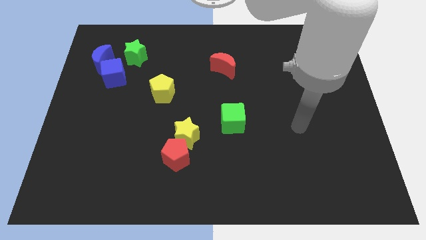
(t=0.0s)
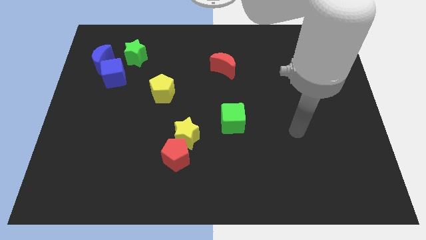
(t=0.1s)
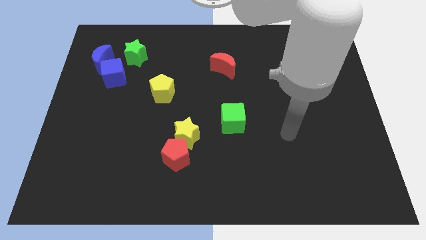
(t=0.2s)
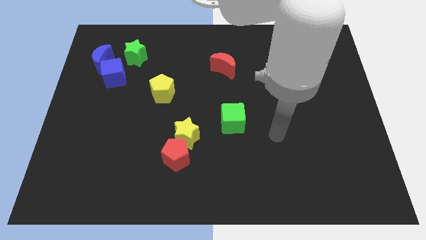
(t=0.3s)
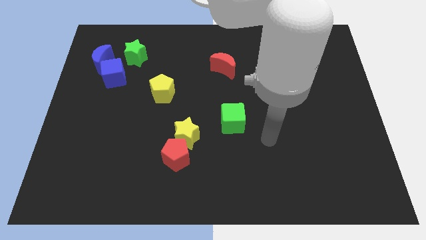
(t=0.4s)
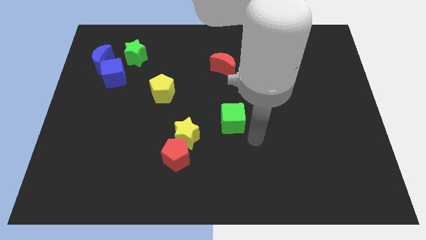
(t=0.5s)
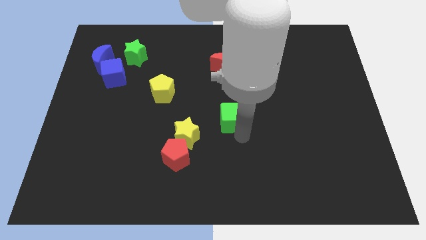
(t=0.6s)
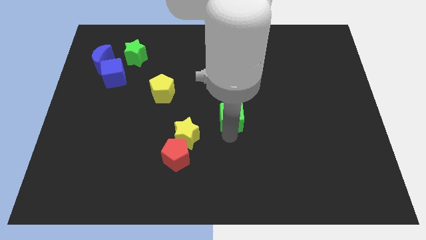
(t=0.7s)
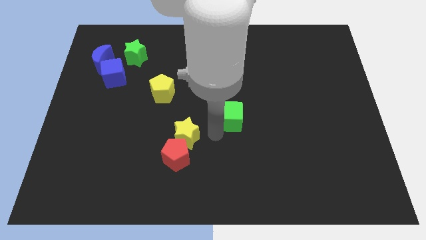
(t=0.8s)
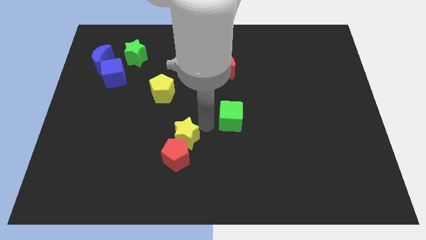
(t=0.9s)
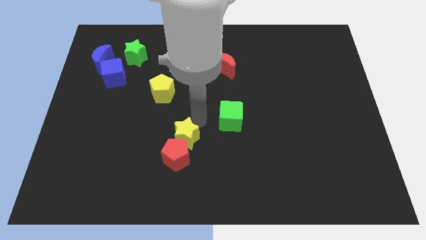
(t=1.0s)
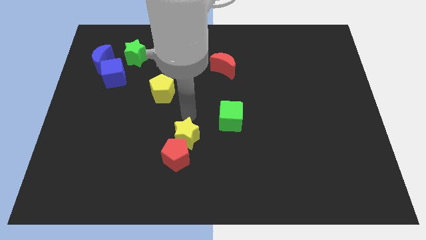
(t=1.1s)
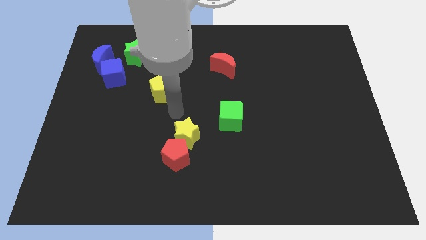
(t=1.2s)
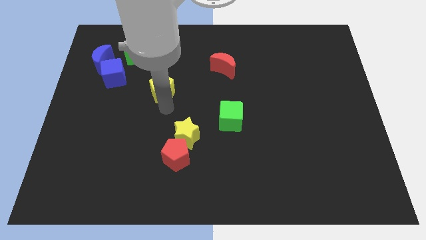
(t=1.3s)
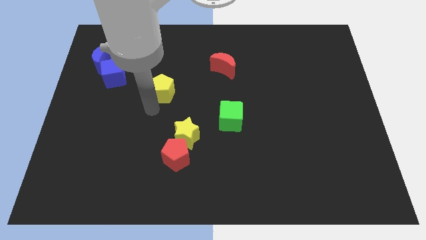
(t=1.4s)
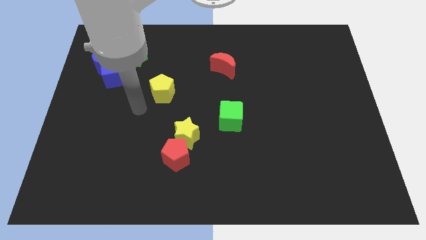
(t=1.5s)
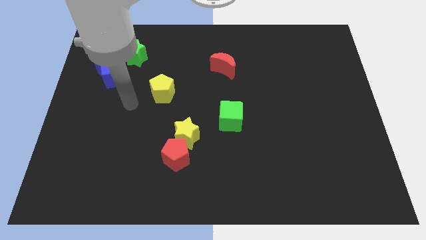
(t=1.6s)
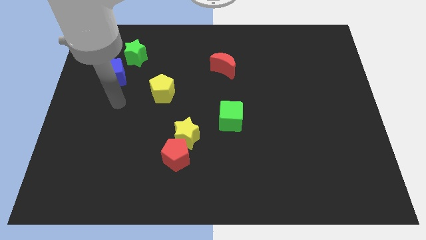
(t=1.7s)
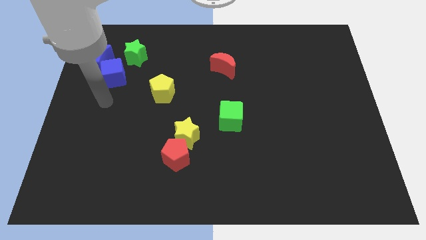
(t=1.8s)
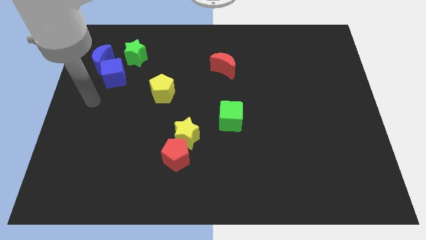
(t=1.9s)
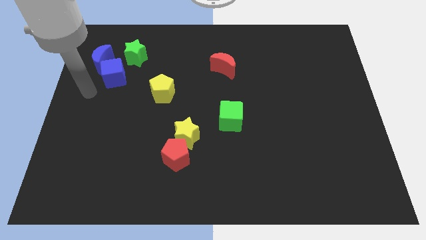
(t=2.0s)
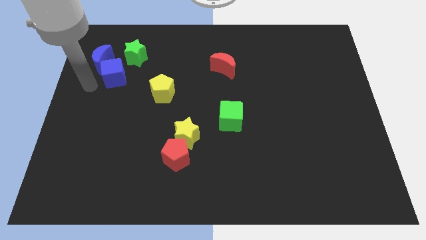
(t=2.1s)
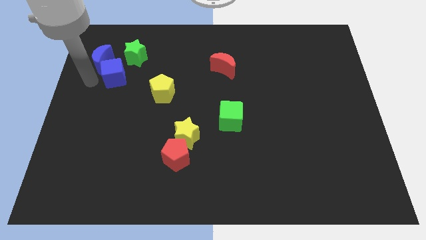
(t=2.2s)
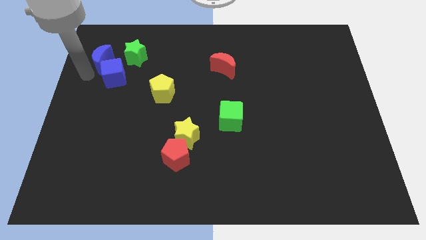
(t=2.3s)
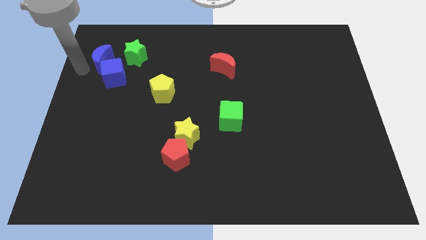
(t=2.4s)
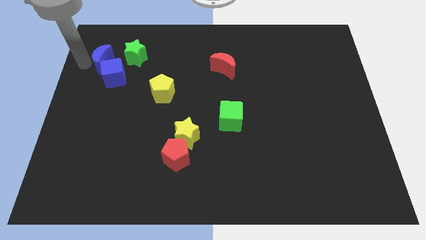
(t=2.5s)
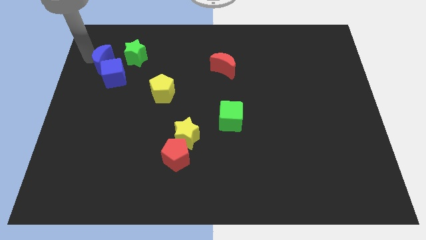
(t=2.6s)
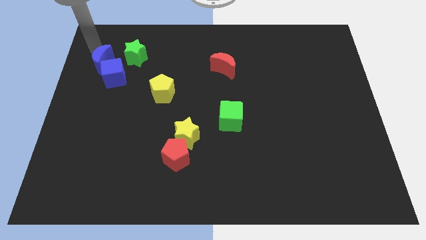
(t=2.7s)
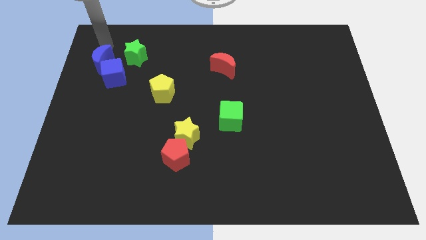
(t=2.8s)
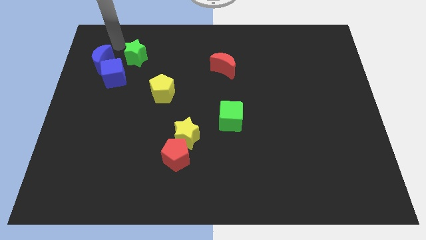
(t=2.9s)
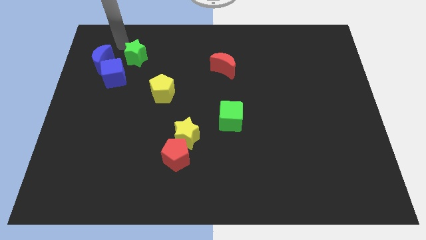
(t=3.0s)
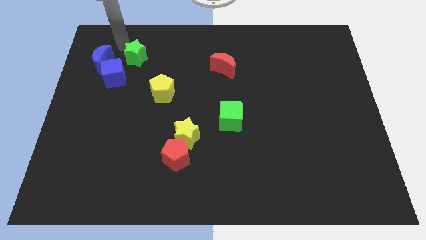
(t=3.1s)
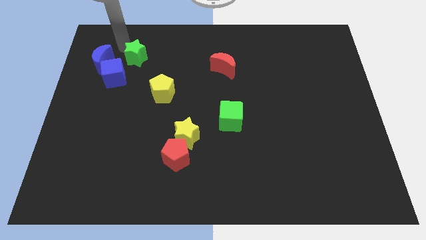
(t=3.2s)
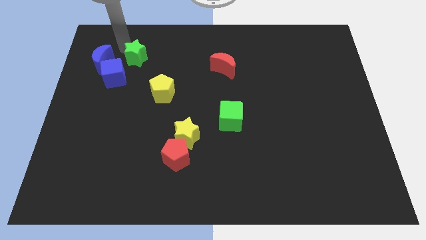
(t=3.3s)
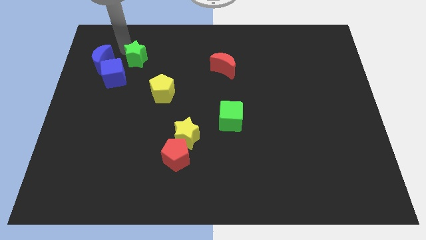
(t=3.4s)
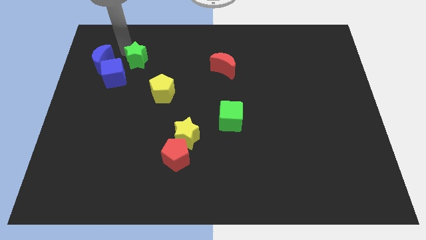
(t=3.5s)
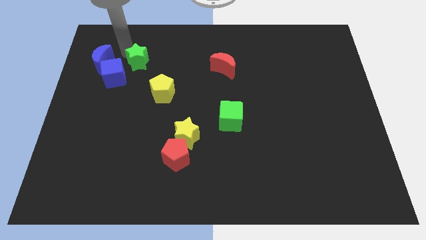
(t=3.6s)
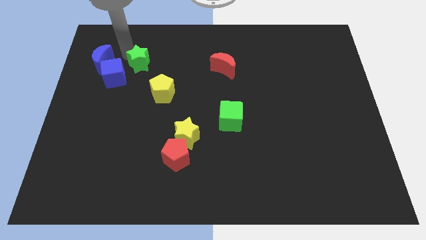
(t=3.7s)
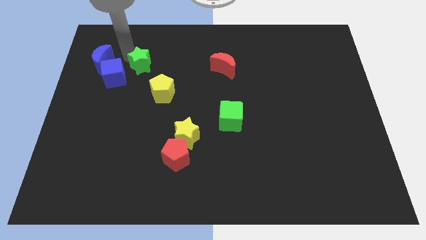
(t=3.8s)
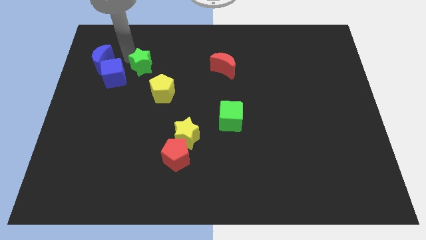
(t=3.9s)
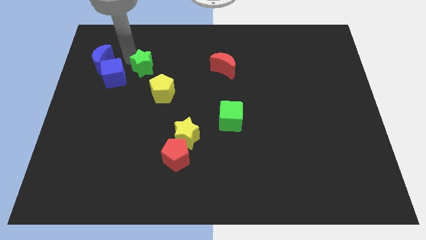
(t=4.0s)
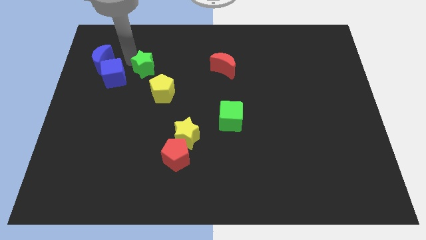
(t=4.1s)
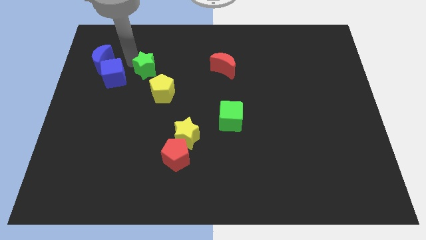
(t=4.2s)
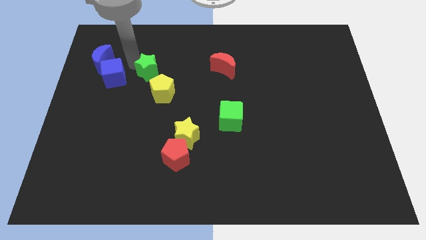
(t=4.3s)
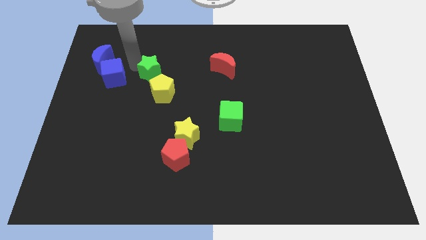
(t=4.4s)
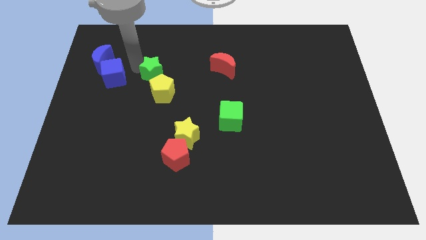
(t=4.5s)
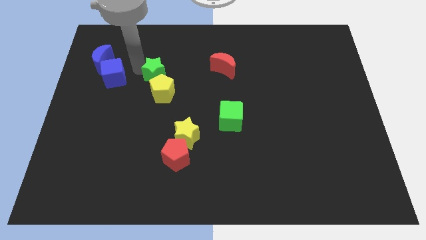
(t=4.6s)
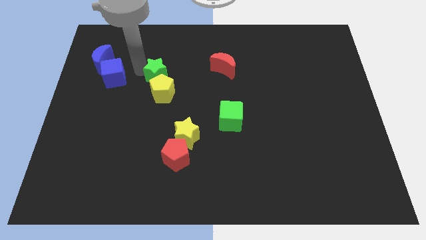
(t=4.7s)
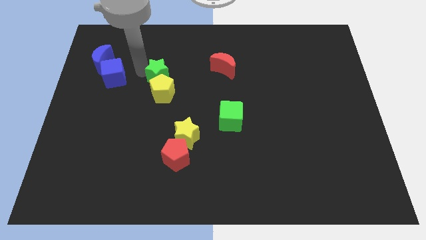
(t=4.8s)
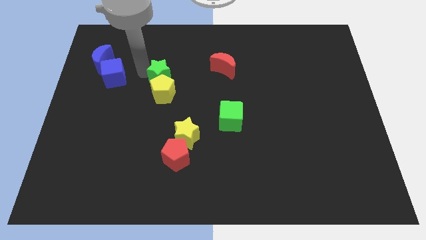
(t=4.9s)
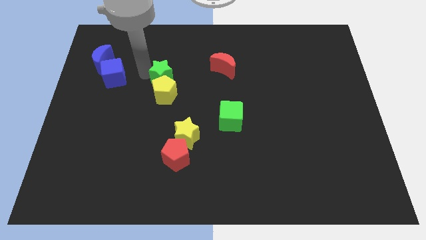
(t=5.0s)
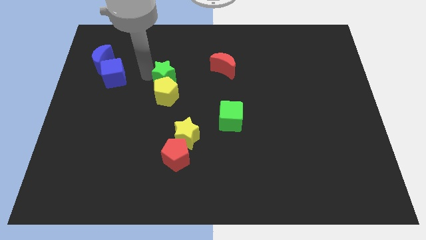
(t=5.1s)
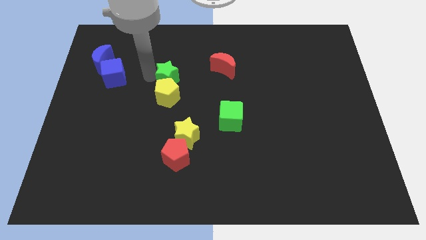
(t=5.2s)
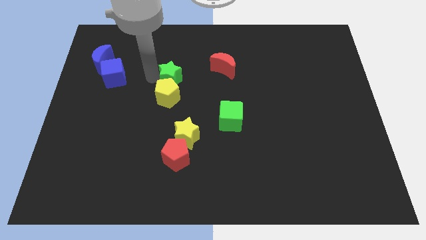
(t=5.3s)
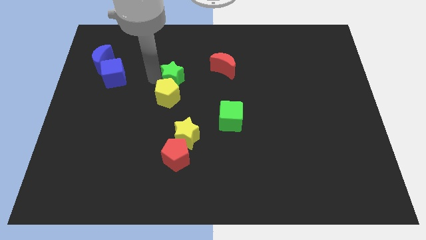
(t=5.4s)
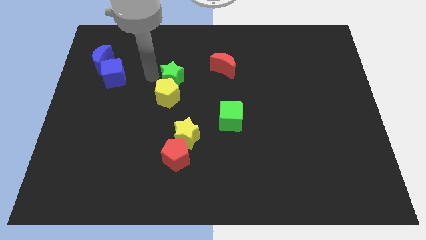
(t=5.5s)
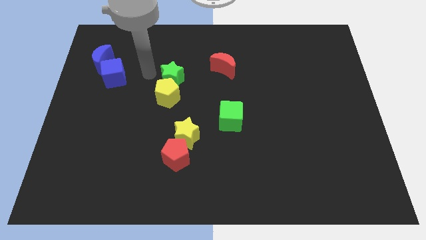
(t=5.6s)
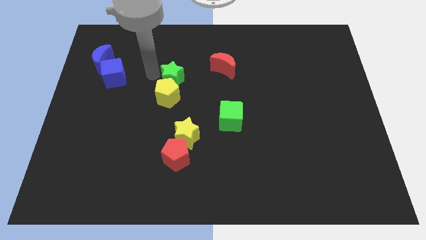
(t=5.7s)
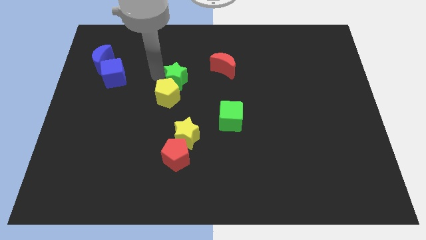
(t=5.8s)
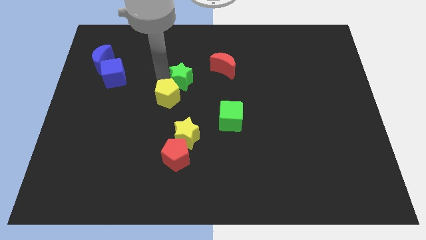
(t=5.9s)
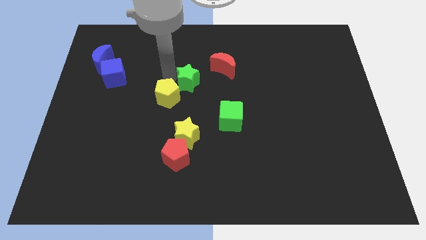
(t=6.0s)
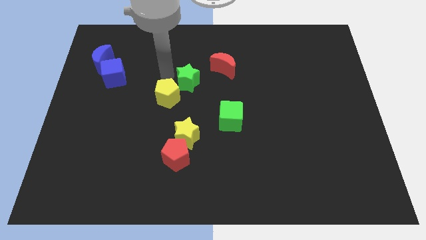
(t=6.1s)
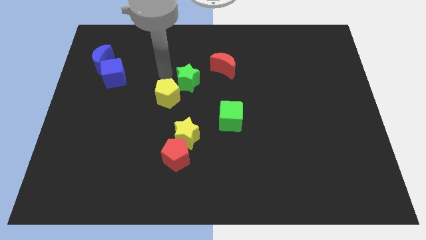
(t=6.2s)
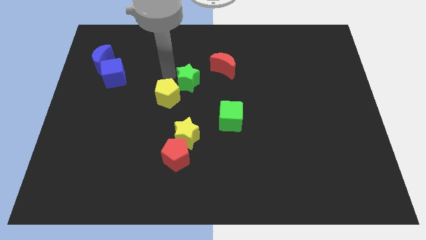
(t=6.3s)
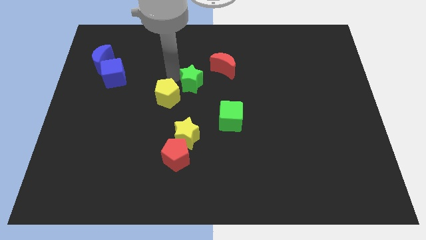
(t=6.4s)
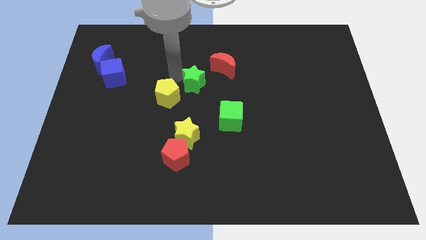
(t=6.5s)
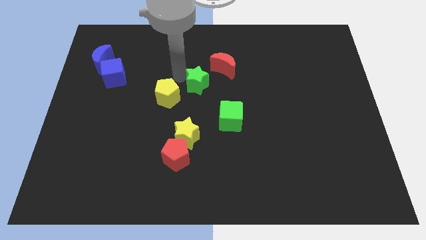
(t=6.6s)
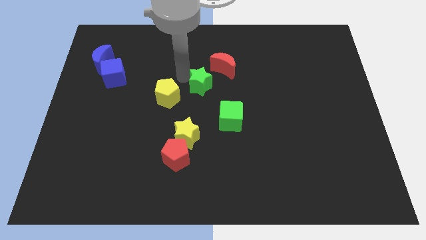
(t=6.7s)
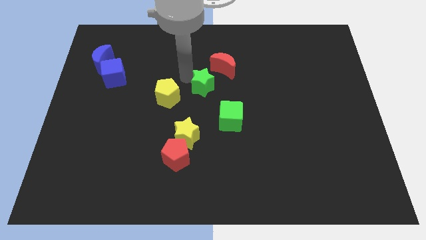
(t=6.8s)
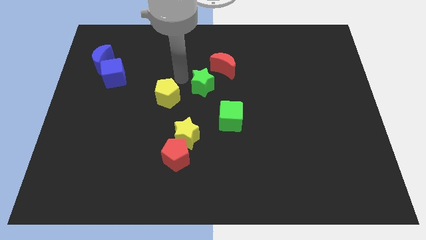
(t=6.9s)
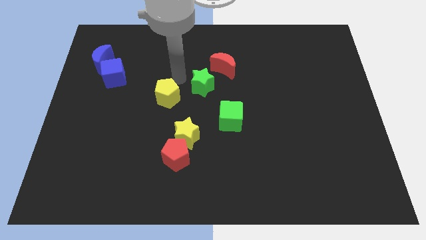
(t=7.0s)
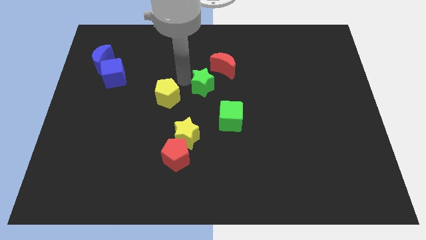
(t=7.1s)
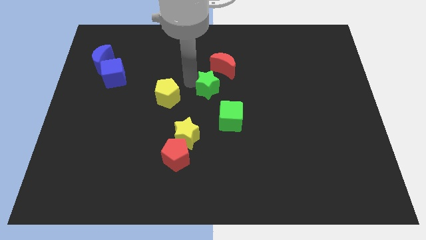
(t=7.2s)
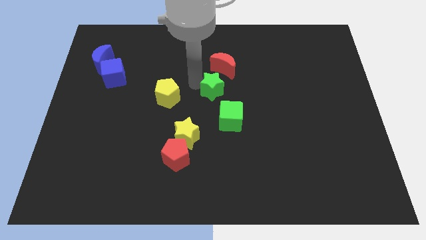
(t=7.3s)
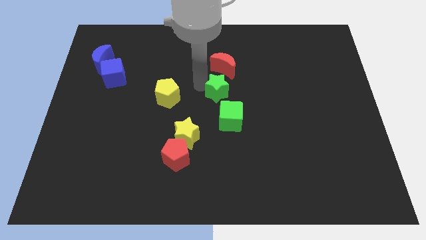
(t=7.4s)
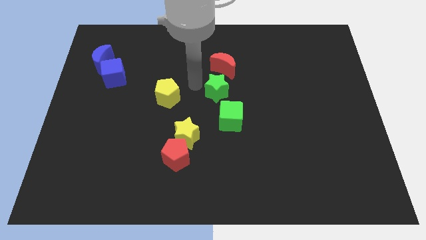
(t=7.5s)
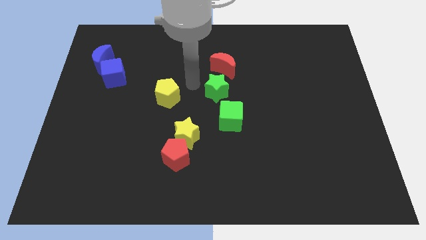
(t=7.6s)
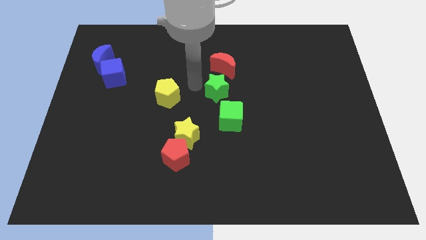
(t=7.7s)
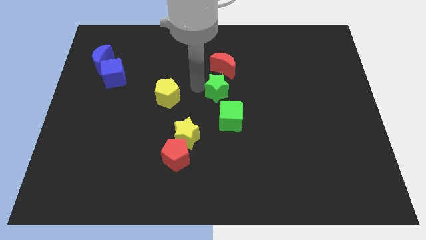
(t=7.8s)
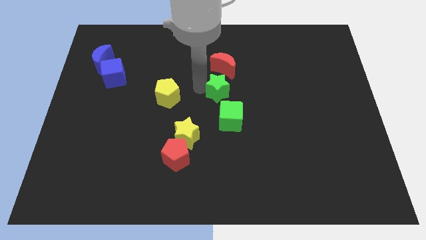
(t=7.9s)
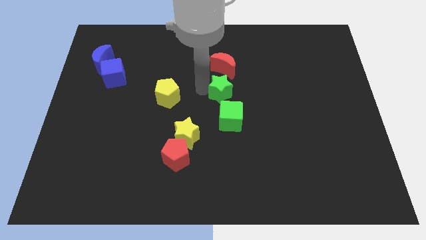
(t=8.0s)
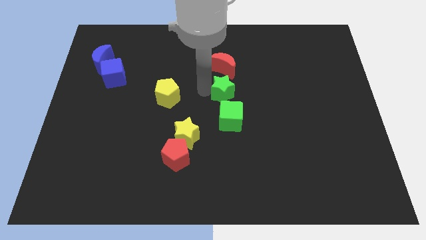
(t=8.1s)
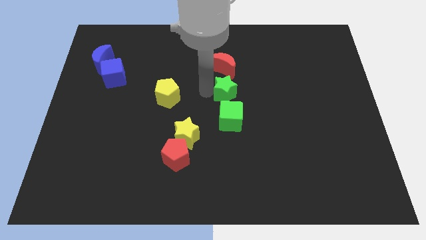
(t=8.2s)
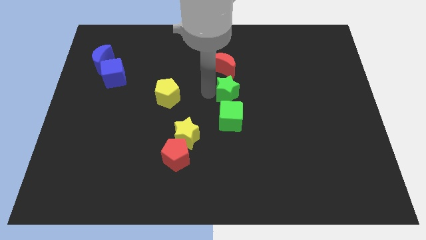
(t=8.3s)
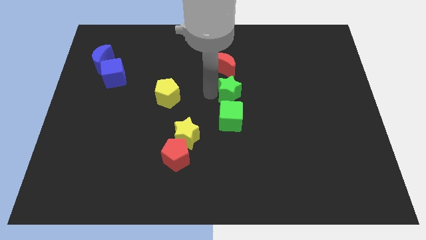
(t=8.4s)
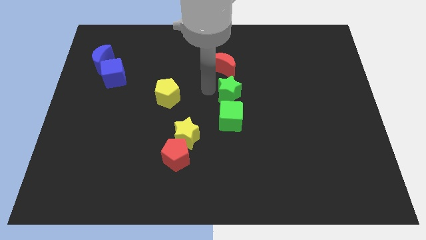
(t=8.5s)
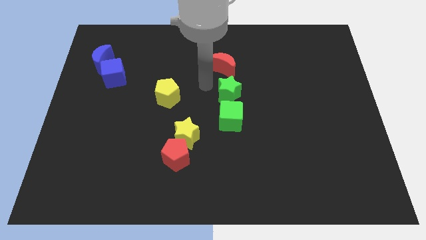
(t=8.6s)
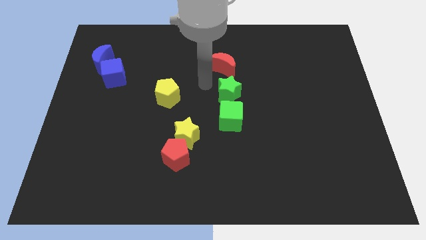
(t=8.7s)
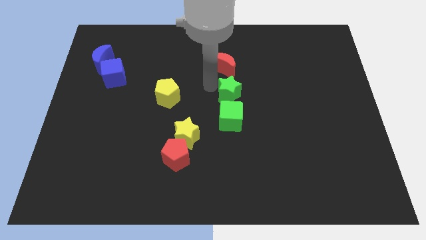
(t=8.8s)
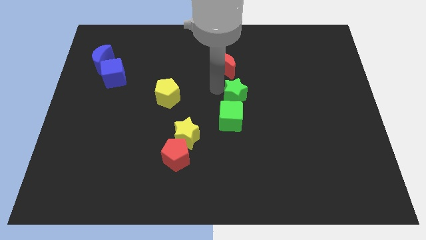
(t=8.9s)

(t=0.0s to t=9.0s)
push the green star diagonally up and to the right of the green cube
